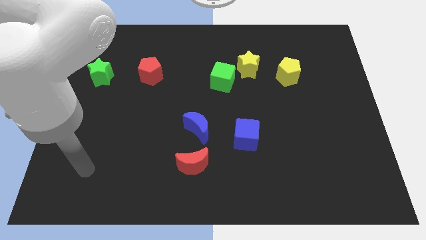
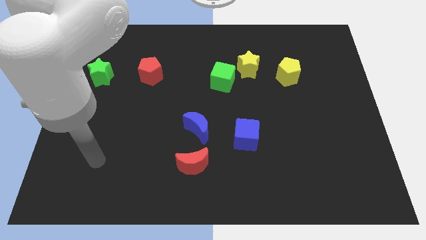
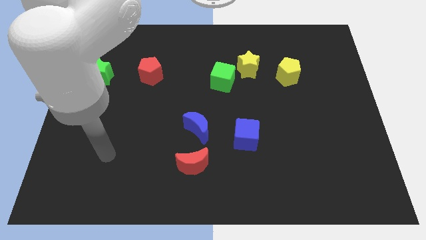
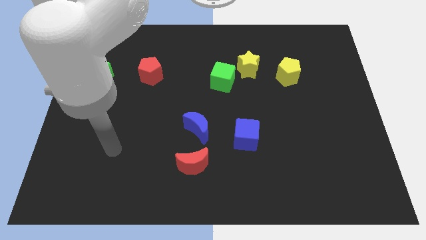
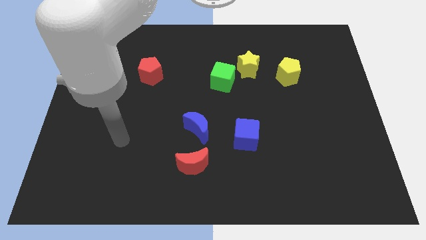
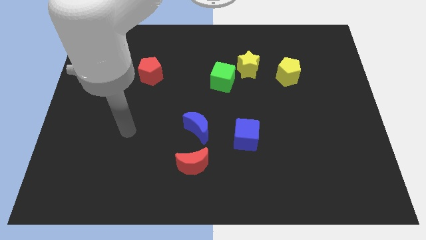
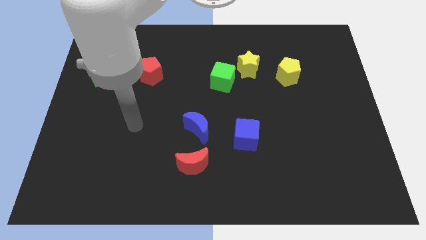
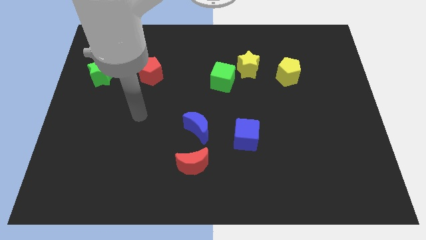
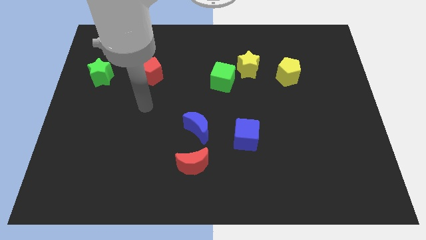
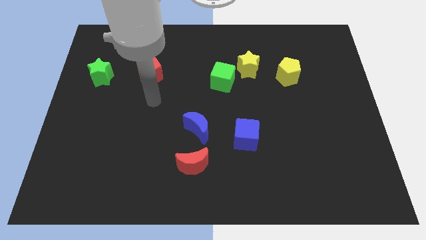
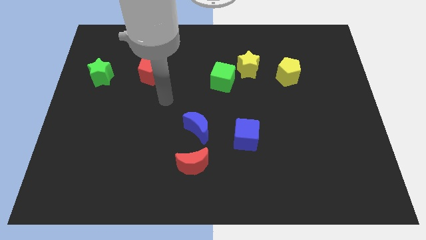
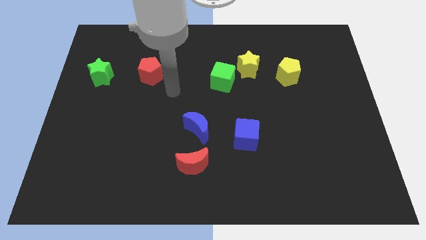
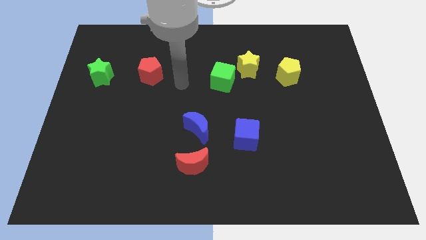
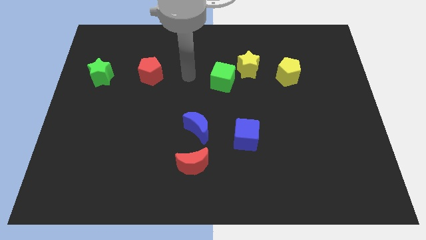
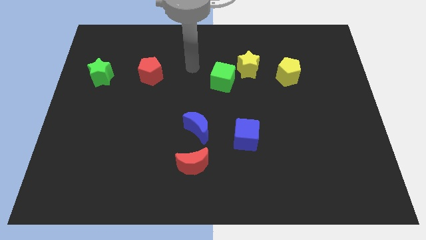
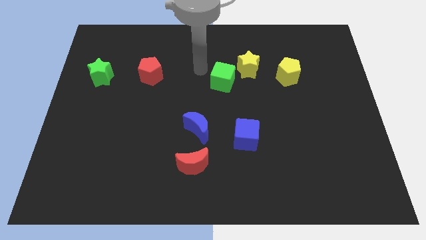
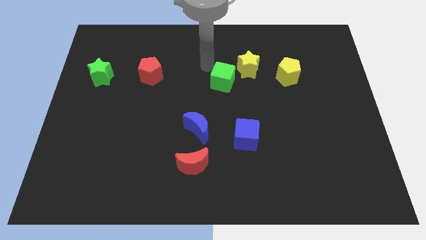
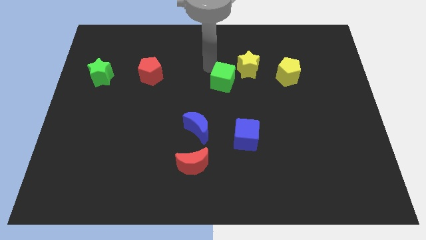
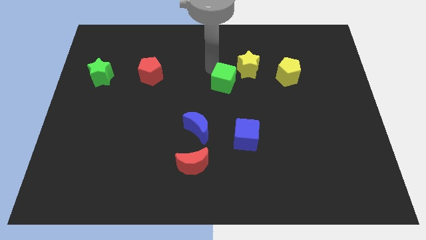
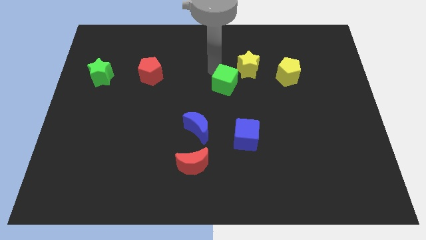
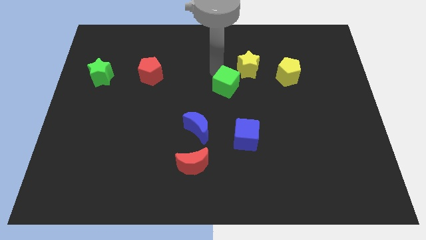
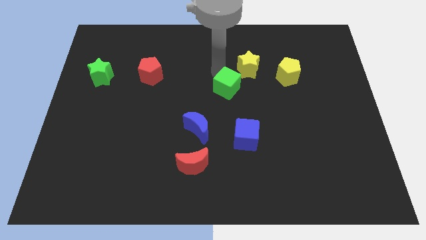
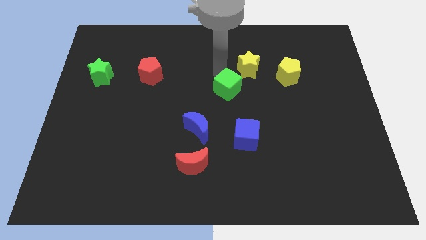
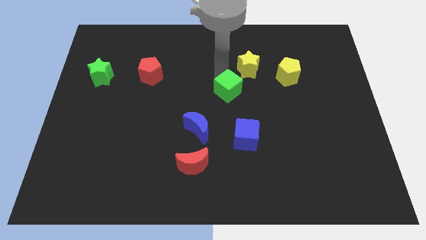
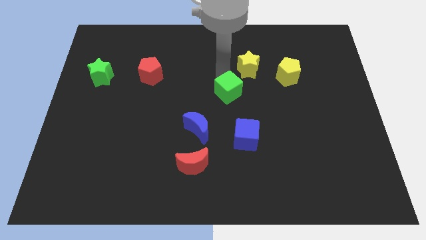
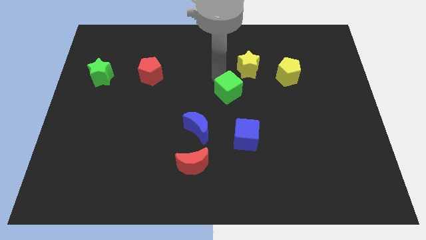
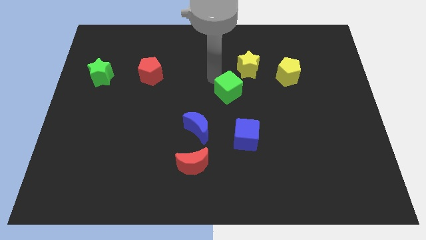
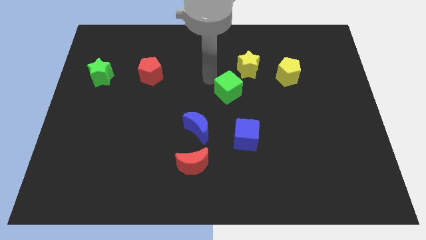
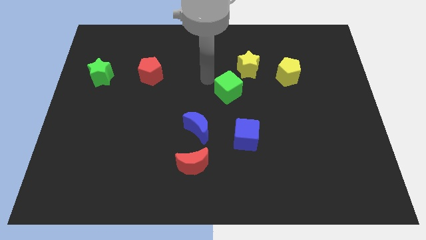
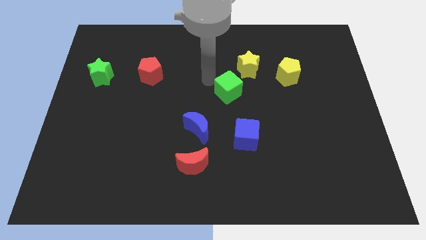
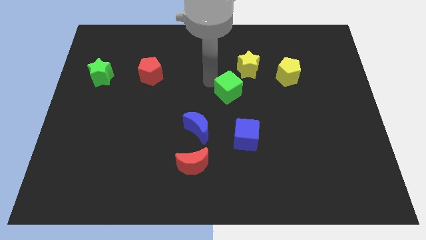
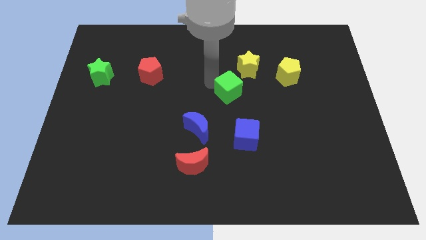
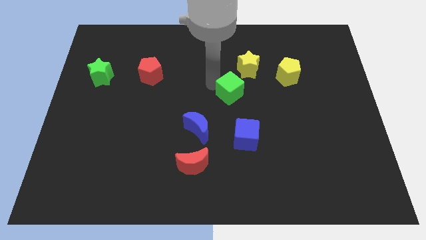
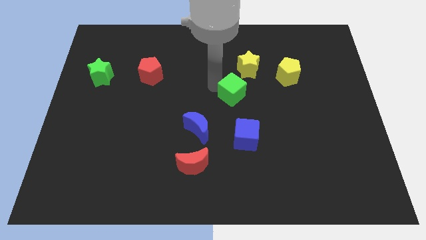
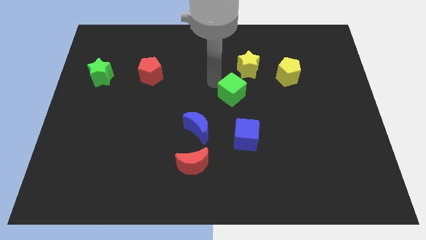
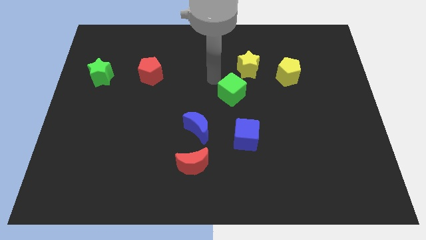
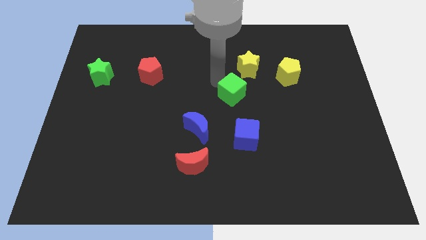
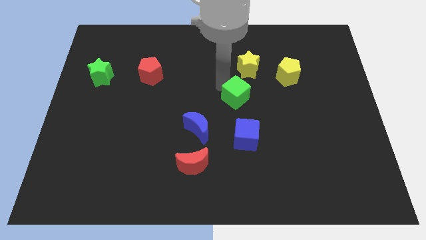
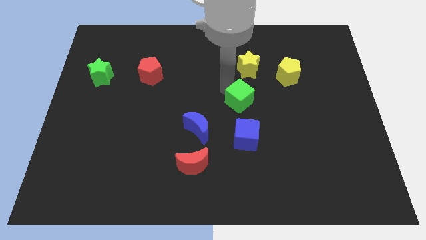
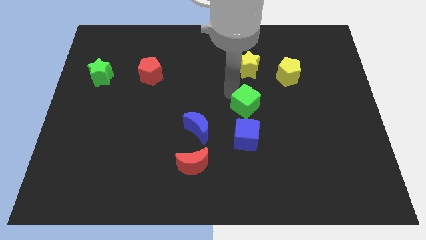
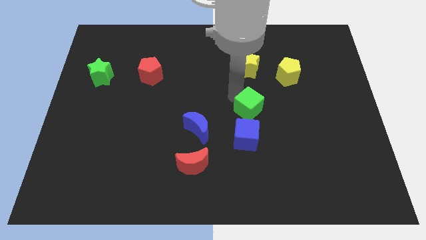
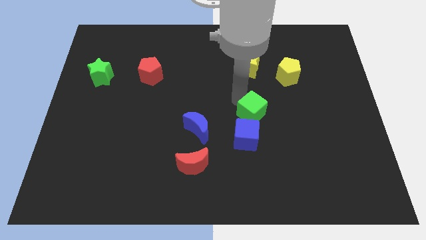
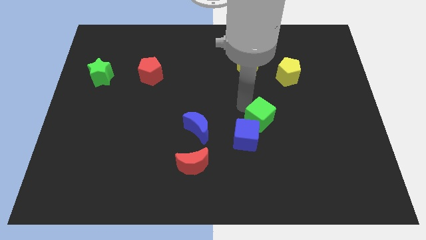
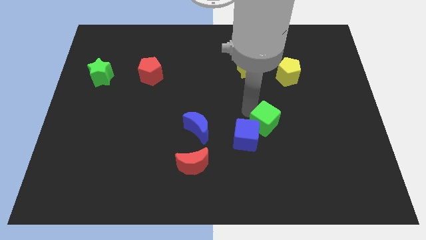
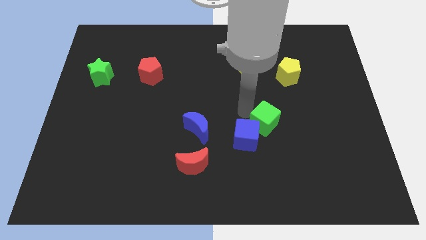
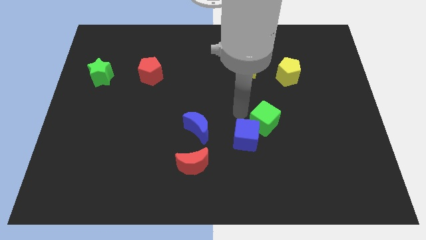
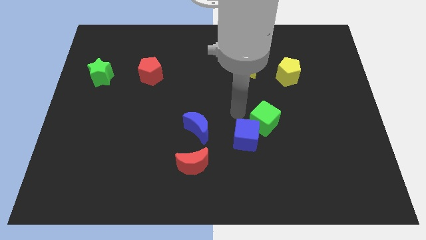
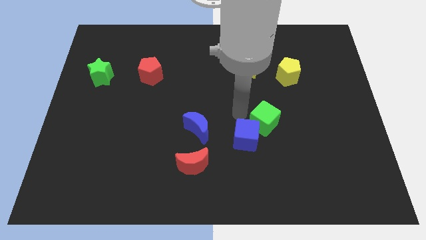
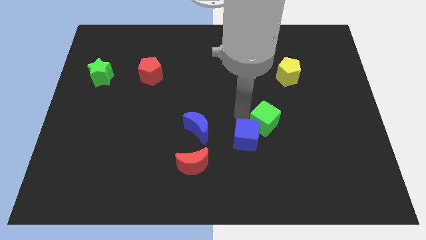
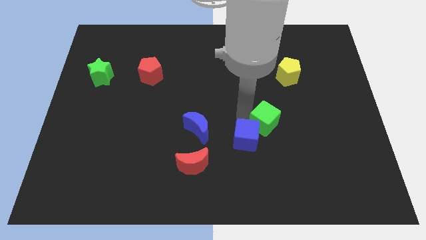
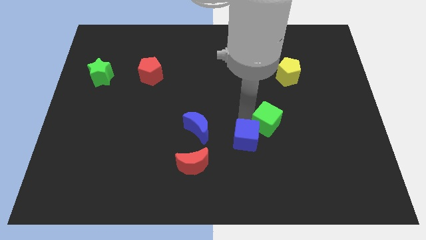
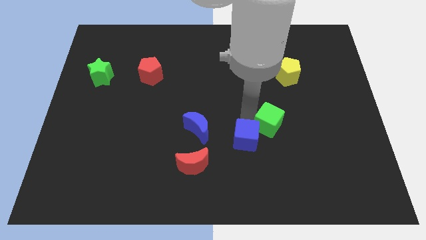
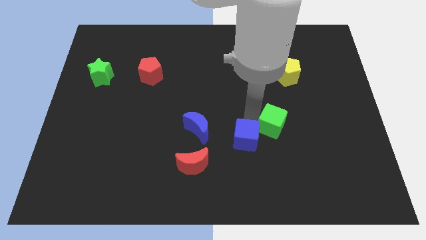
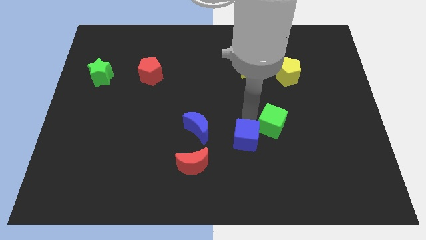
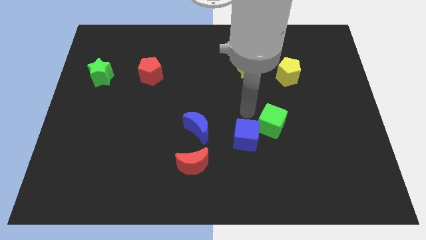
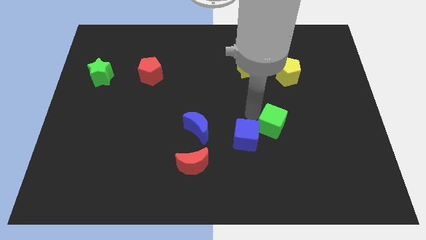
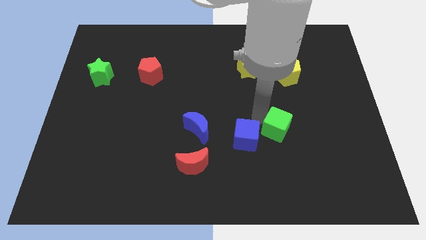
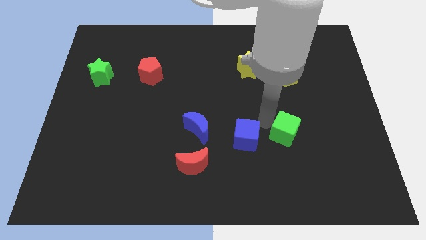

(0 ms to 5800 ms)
slide the green cube downwards and to the right

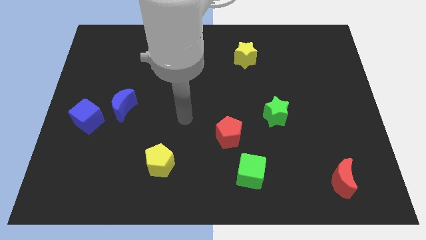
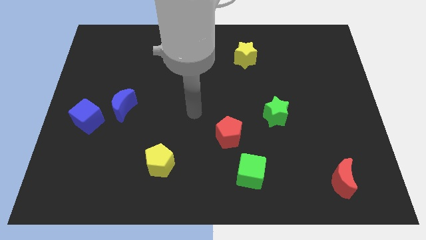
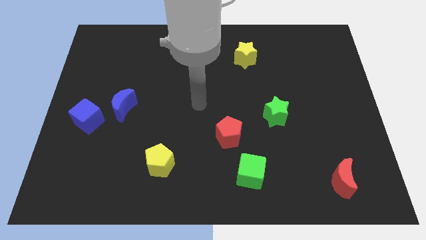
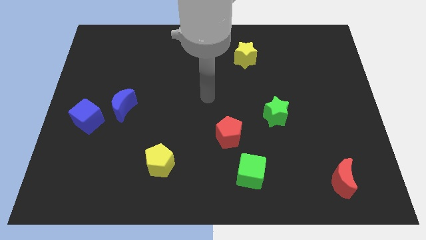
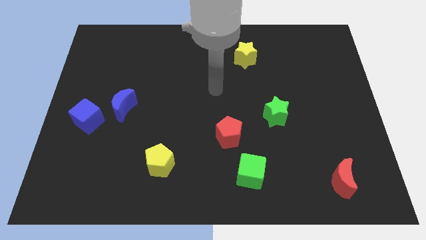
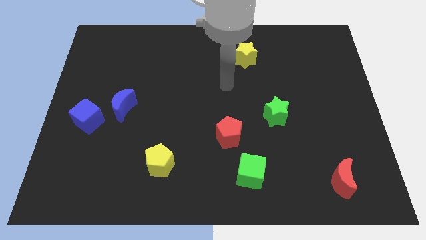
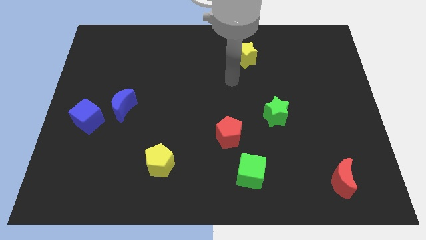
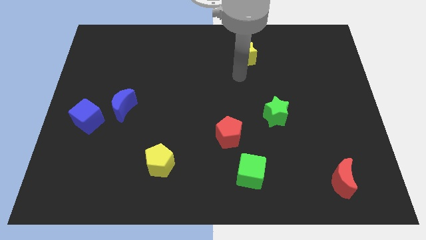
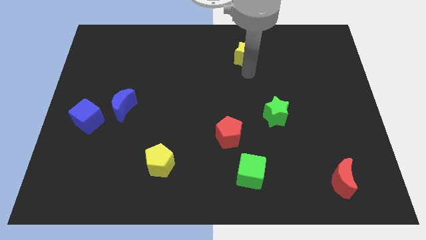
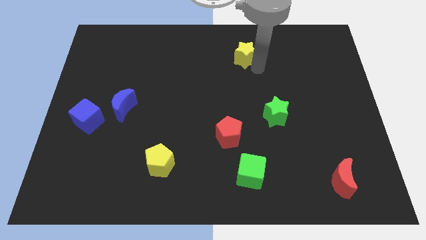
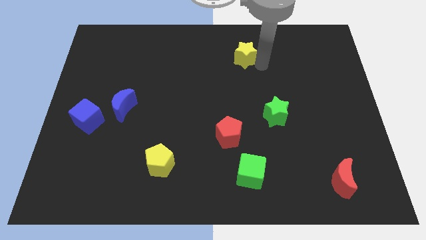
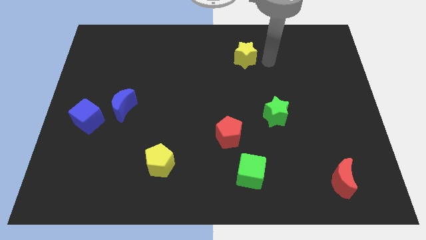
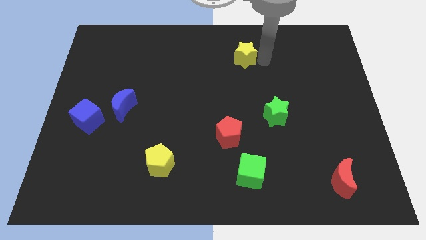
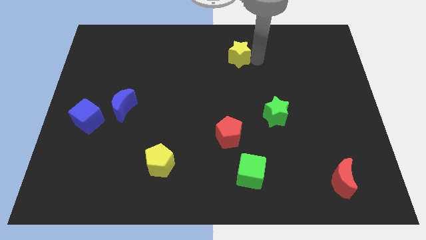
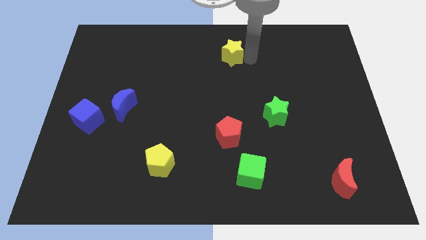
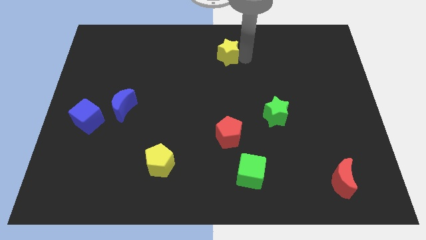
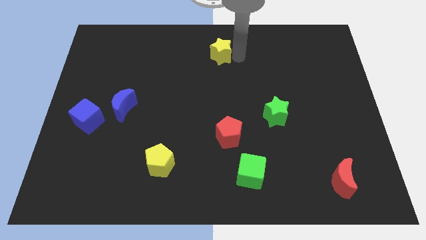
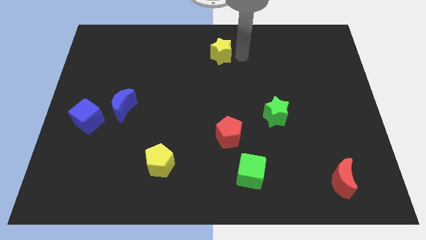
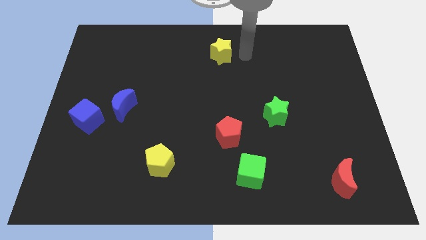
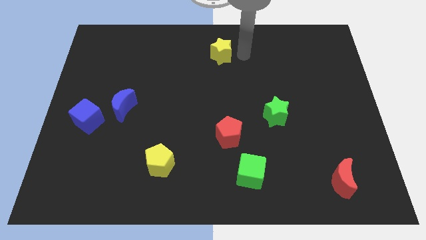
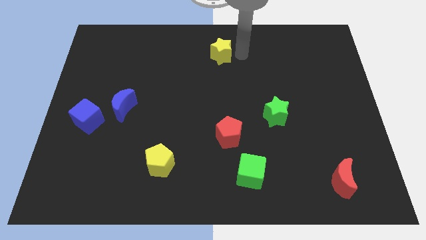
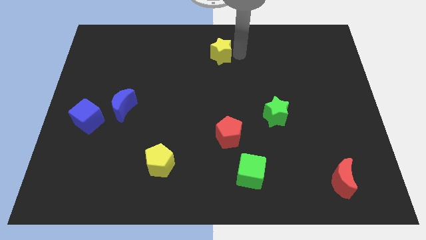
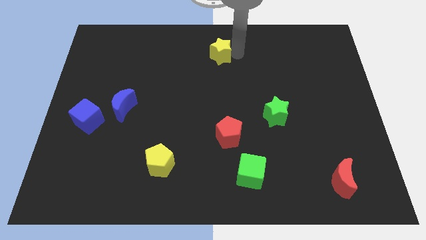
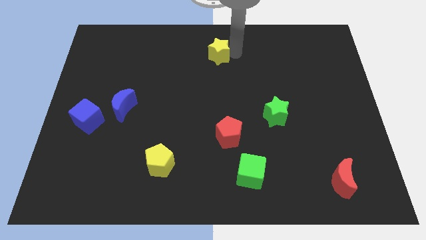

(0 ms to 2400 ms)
push the yellow star left a little

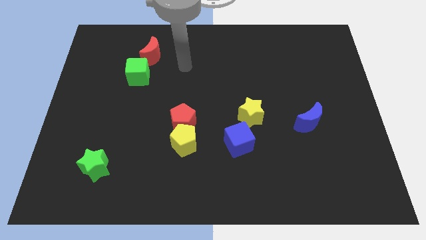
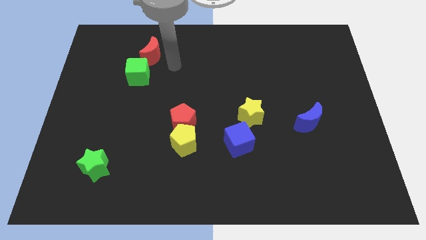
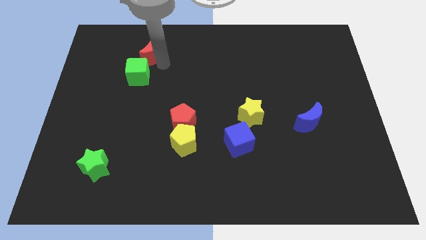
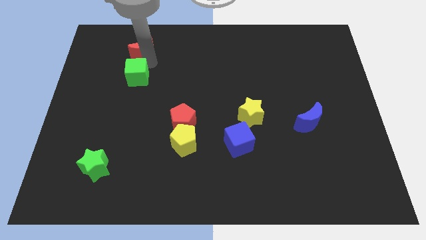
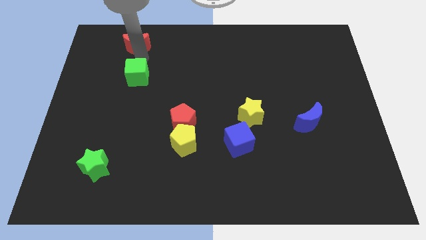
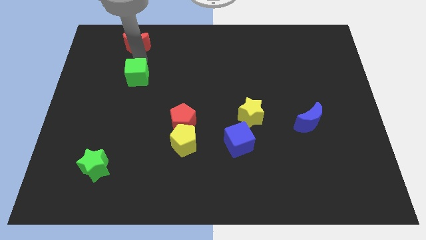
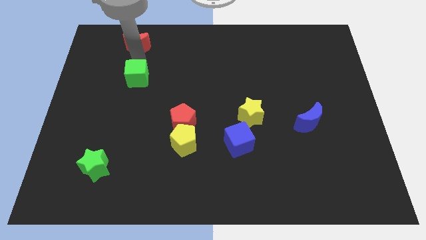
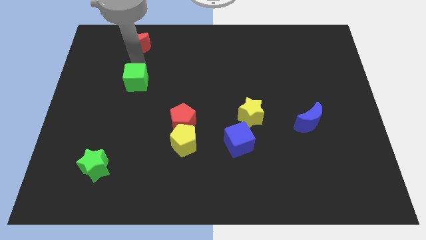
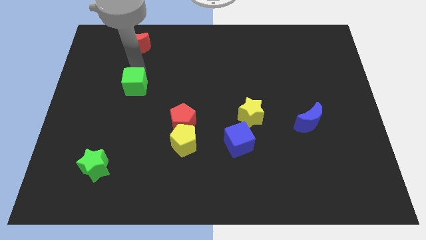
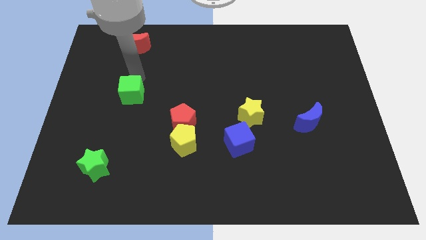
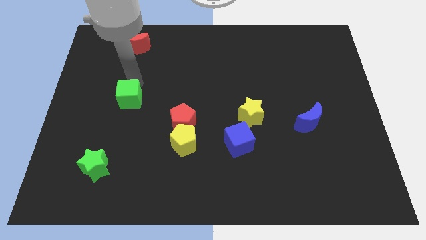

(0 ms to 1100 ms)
move the green cube down a little
